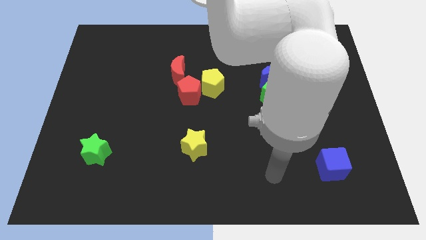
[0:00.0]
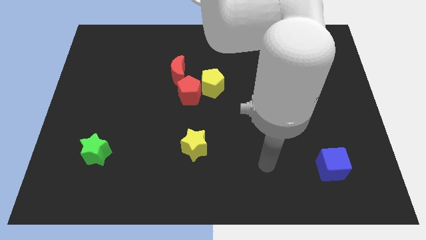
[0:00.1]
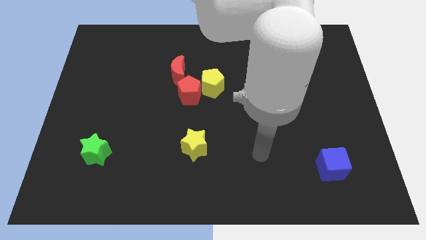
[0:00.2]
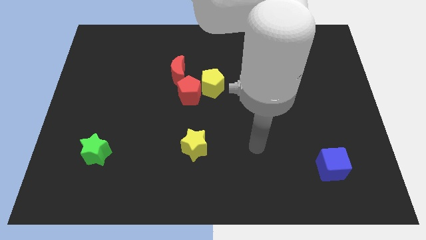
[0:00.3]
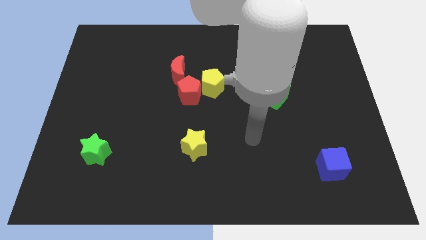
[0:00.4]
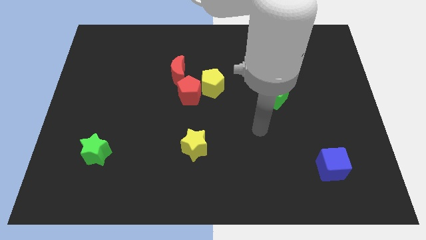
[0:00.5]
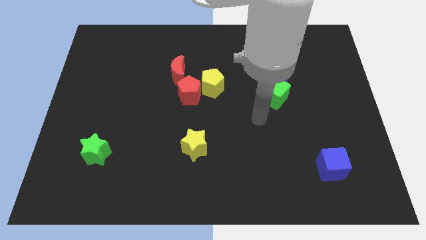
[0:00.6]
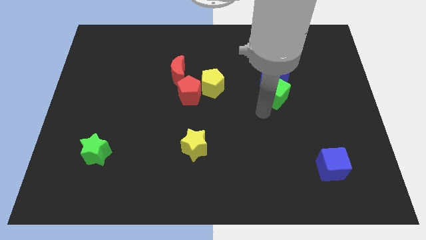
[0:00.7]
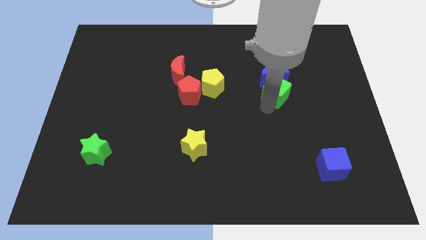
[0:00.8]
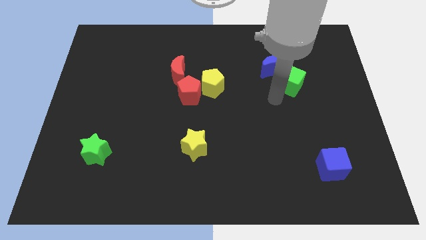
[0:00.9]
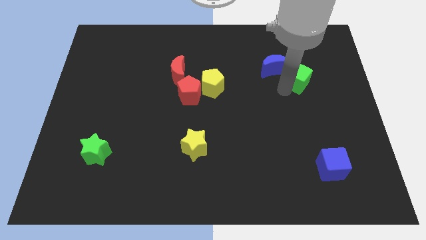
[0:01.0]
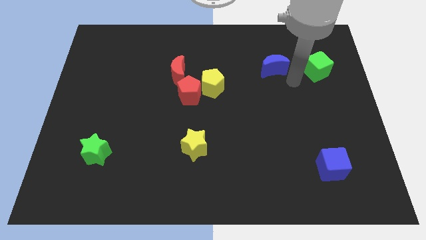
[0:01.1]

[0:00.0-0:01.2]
separate the blue moon from the green cube

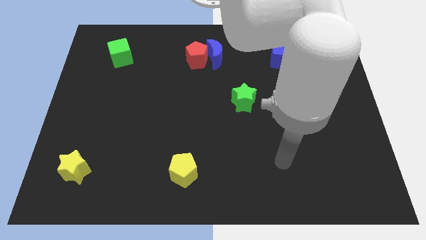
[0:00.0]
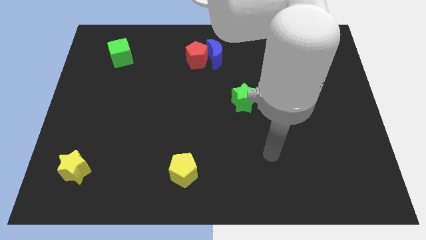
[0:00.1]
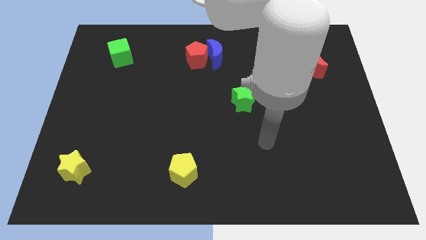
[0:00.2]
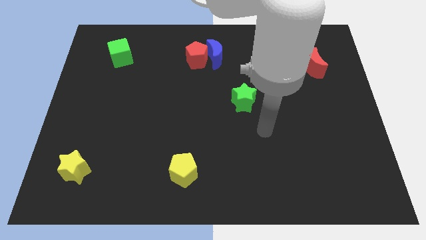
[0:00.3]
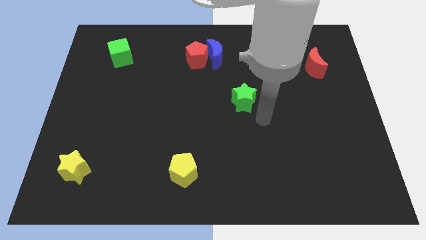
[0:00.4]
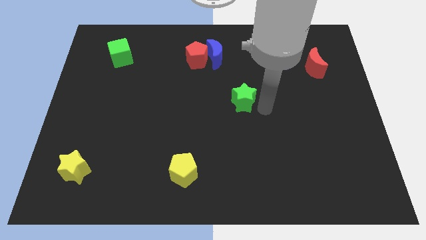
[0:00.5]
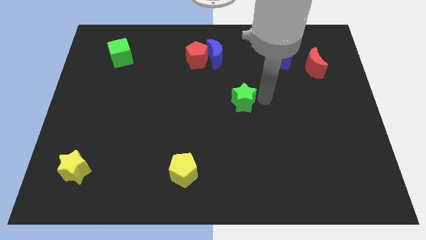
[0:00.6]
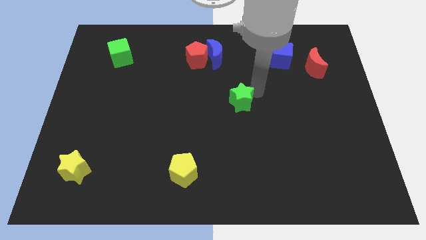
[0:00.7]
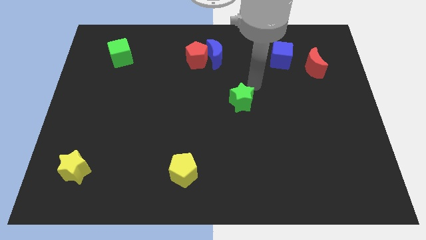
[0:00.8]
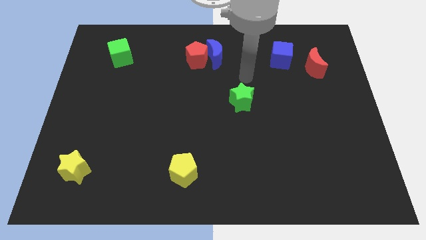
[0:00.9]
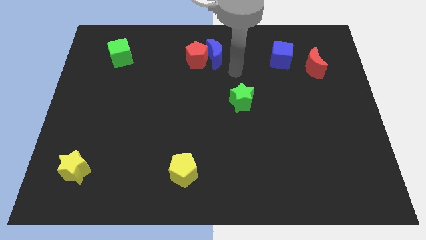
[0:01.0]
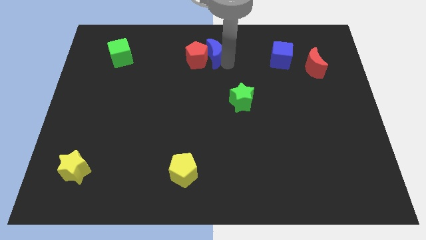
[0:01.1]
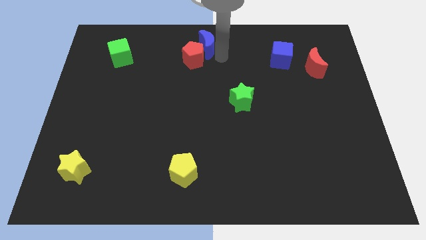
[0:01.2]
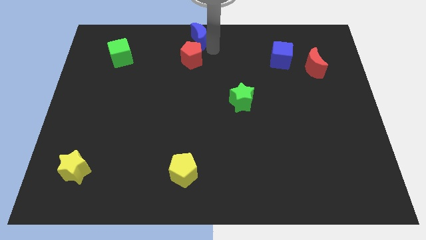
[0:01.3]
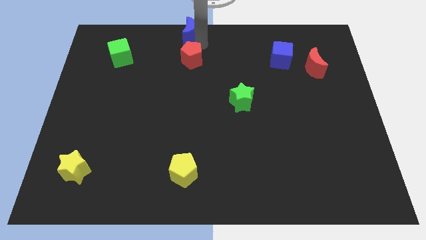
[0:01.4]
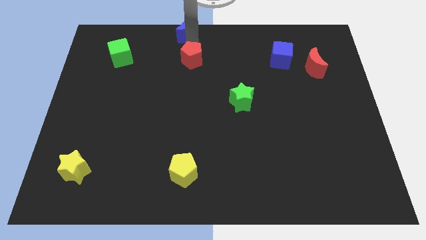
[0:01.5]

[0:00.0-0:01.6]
separate the red pentagon from the blue moon

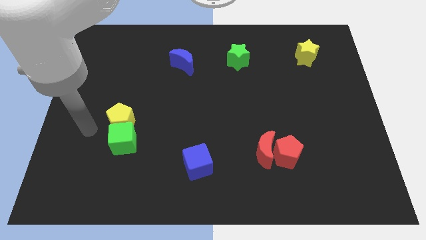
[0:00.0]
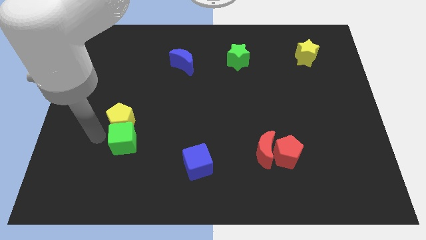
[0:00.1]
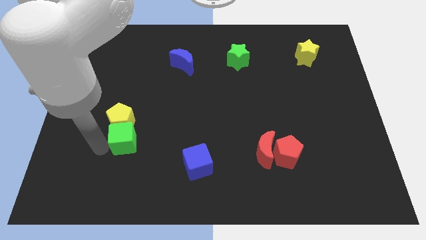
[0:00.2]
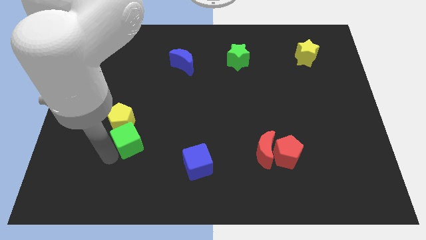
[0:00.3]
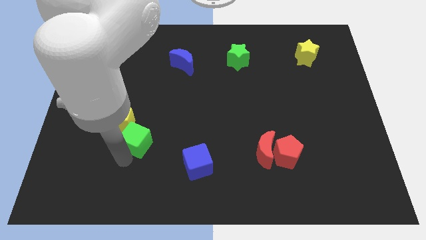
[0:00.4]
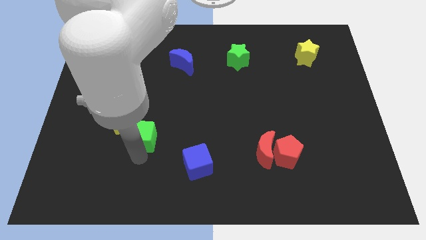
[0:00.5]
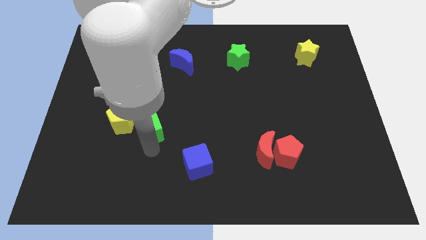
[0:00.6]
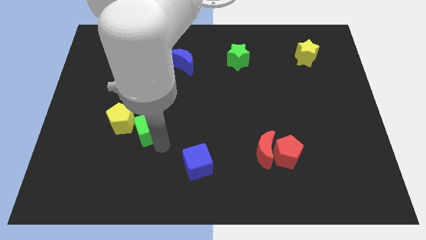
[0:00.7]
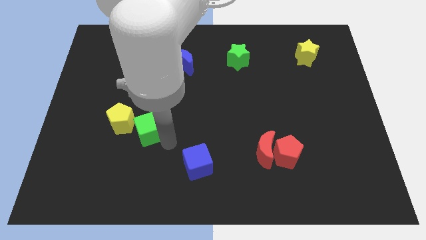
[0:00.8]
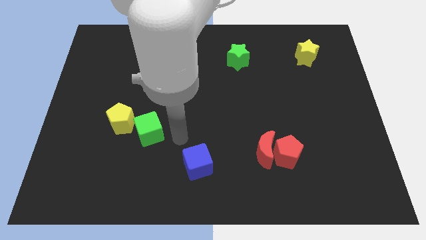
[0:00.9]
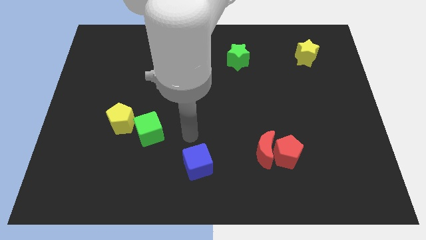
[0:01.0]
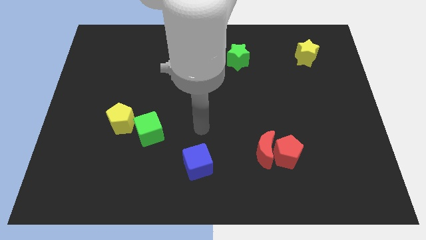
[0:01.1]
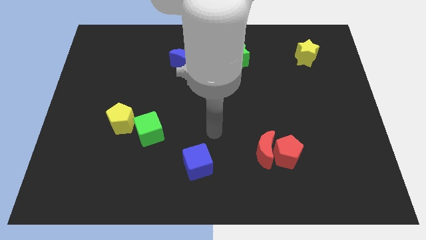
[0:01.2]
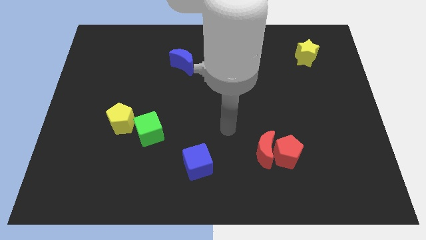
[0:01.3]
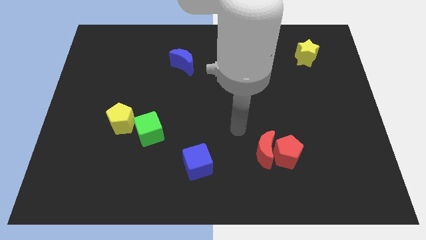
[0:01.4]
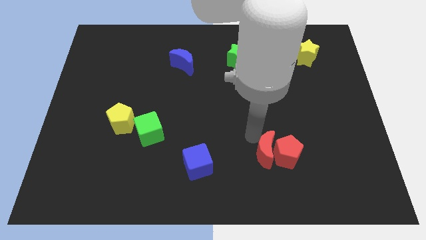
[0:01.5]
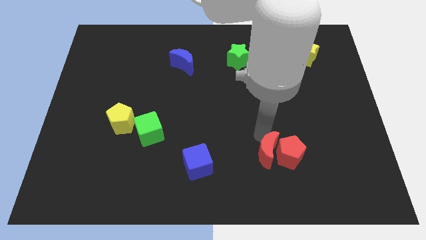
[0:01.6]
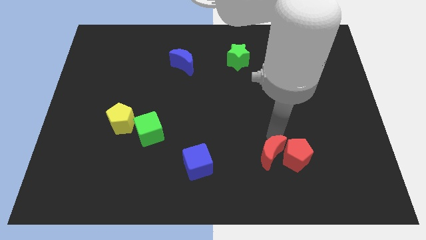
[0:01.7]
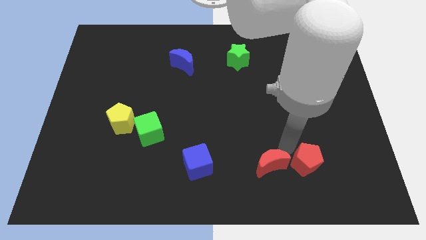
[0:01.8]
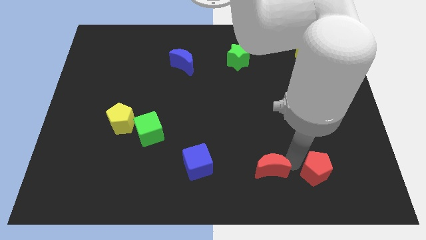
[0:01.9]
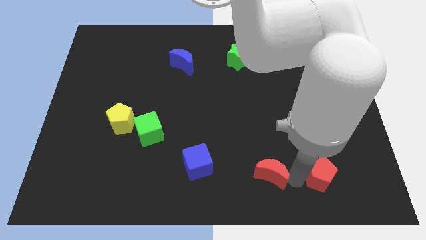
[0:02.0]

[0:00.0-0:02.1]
move the red moon away from the red pentagon

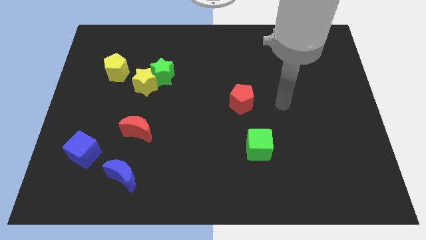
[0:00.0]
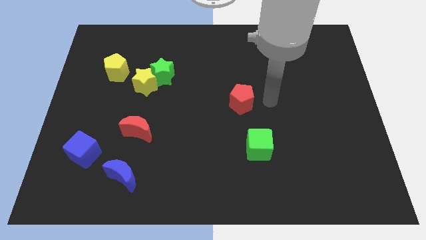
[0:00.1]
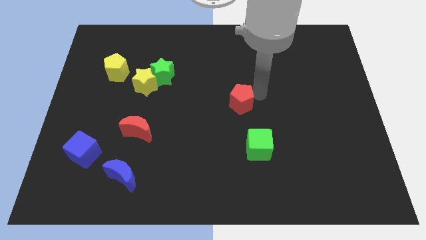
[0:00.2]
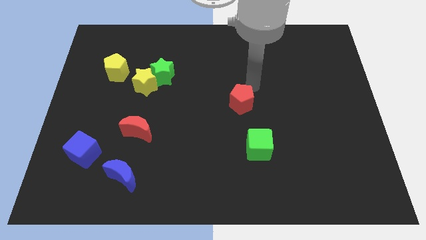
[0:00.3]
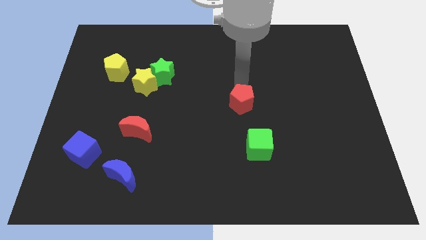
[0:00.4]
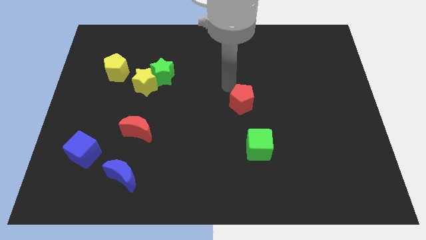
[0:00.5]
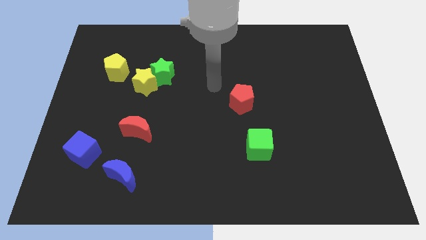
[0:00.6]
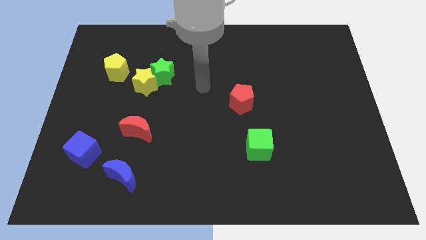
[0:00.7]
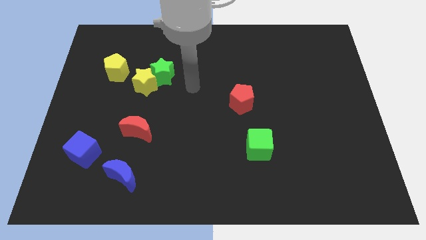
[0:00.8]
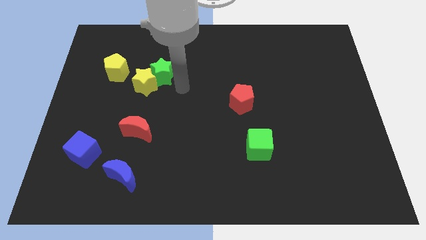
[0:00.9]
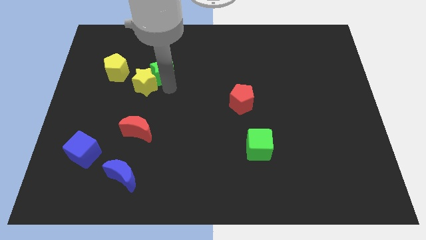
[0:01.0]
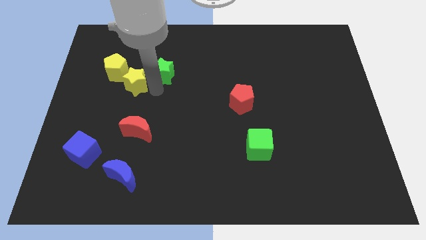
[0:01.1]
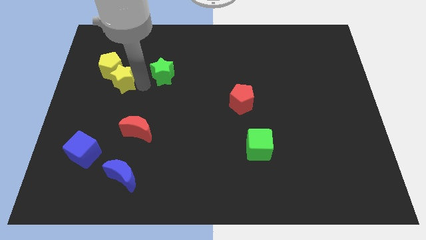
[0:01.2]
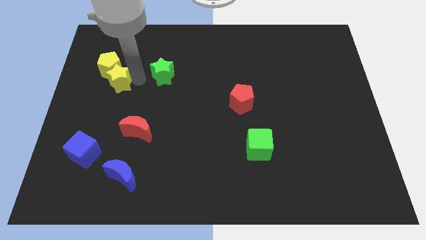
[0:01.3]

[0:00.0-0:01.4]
pull the green star apart from the yellow star

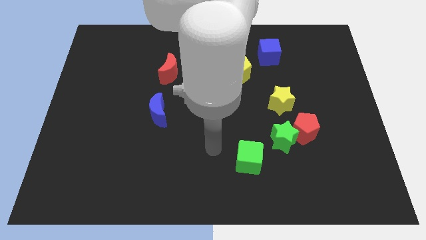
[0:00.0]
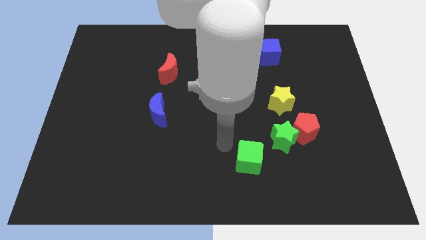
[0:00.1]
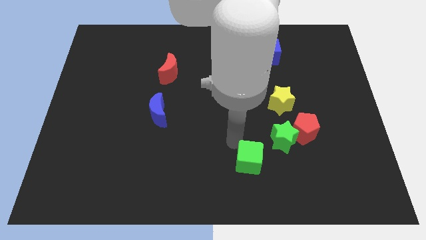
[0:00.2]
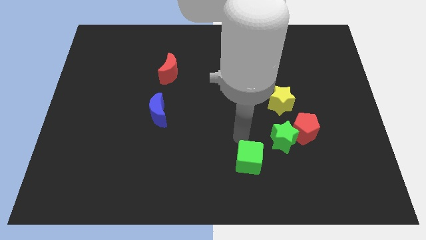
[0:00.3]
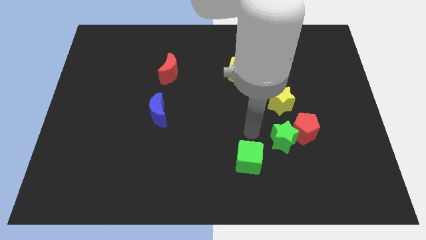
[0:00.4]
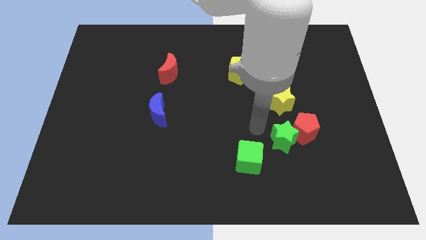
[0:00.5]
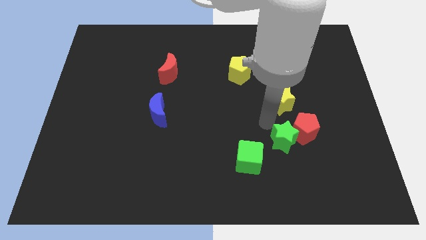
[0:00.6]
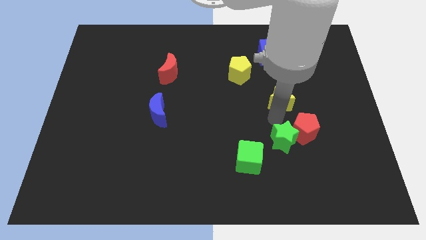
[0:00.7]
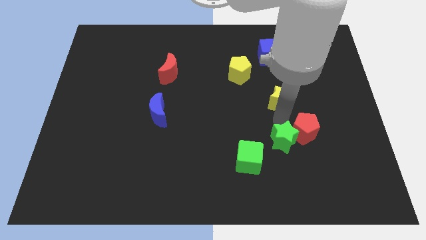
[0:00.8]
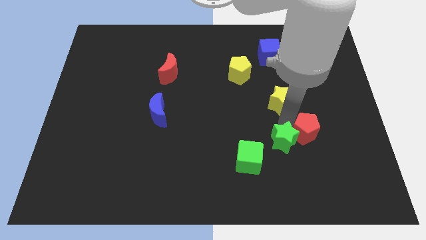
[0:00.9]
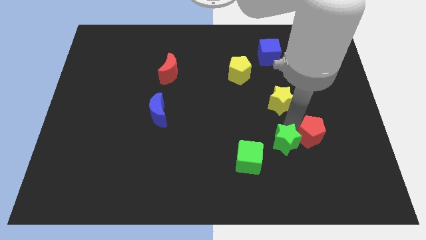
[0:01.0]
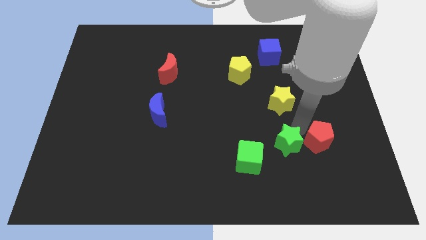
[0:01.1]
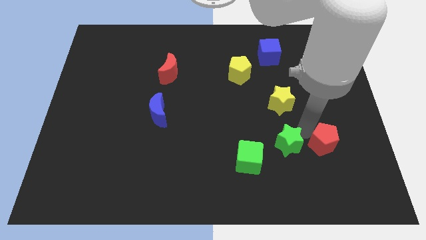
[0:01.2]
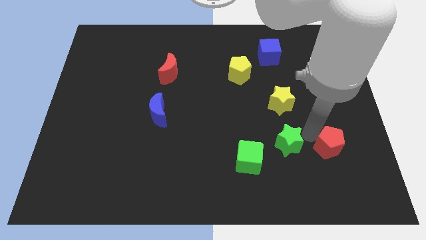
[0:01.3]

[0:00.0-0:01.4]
separate the red pentagon from the green star and yellow star

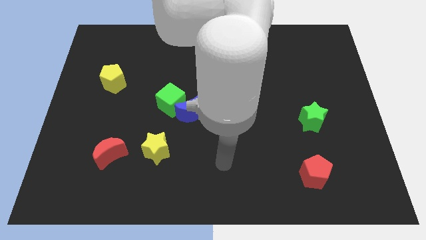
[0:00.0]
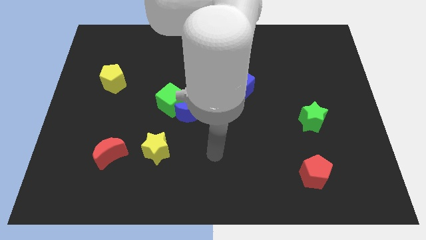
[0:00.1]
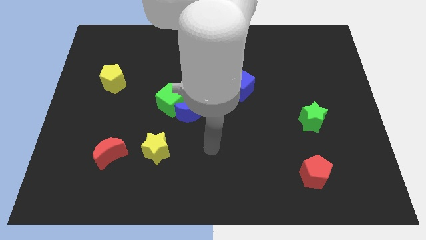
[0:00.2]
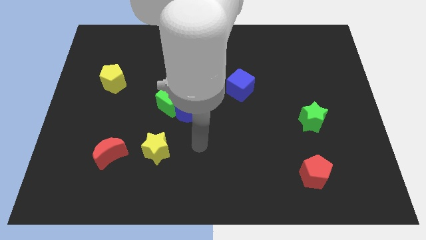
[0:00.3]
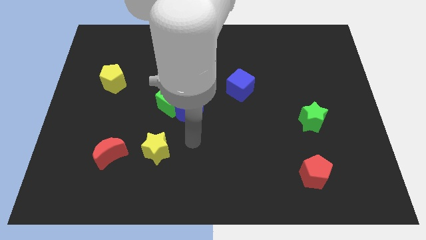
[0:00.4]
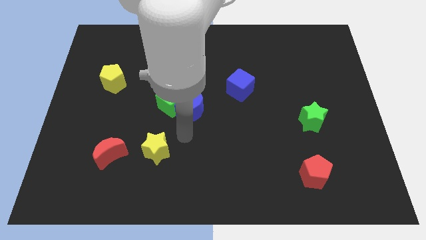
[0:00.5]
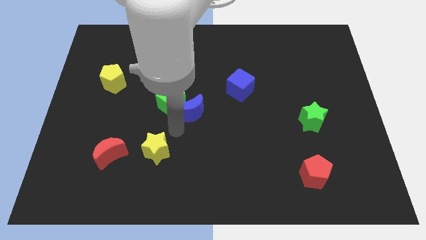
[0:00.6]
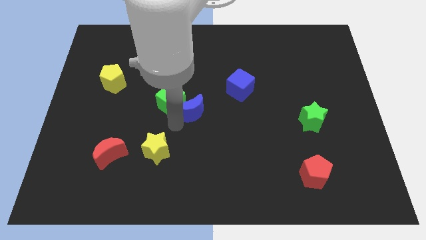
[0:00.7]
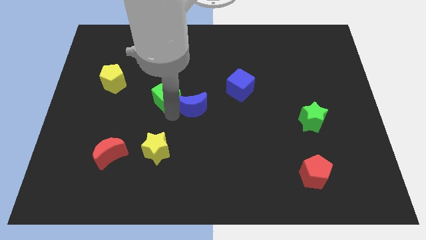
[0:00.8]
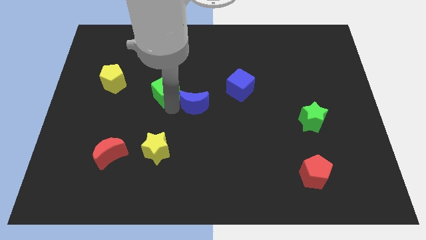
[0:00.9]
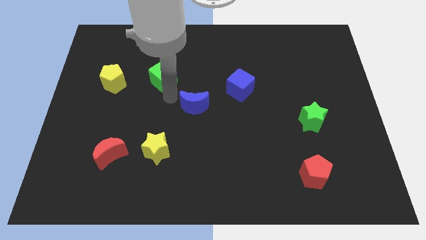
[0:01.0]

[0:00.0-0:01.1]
pull the blue moon apart from the green cube

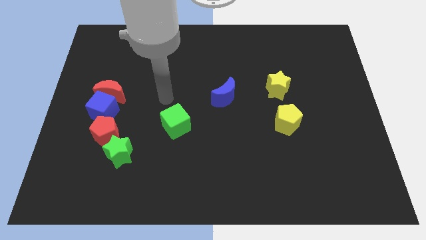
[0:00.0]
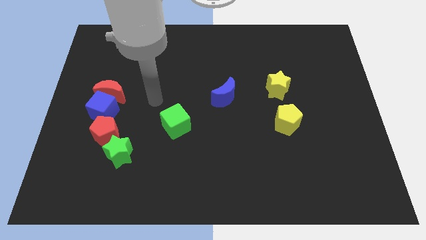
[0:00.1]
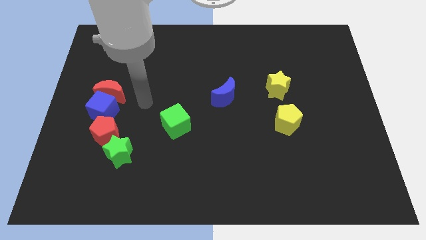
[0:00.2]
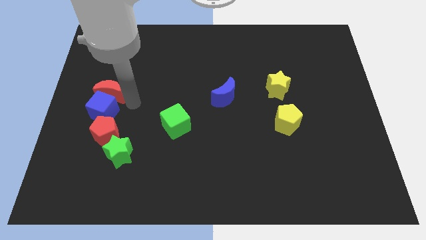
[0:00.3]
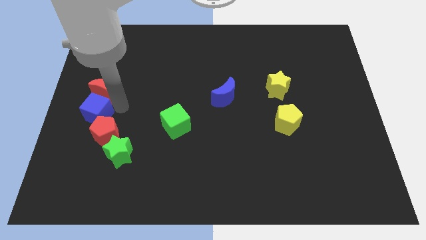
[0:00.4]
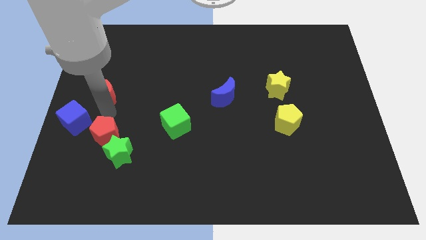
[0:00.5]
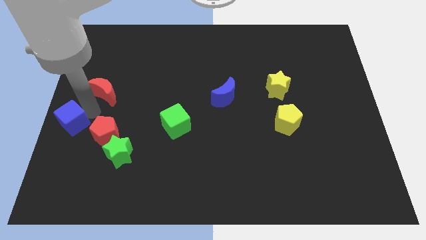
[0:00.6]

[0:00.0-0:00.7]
move the red moon away from the blue cube
